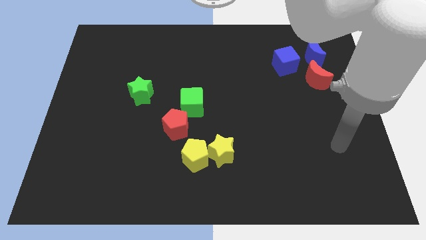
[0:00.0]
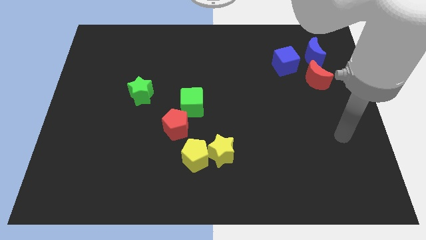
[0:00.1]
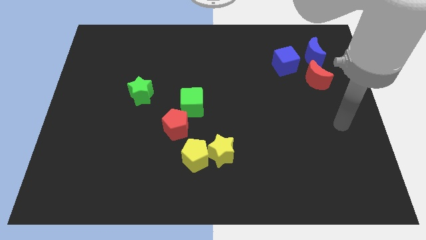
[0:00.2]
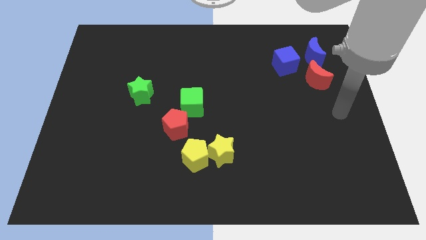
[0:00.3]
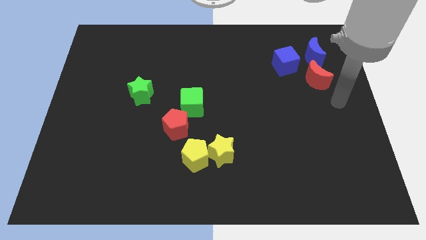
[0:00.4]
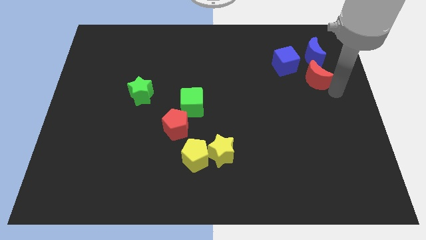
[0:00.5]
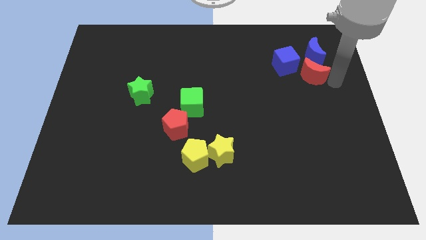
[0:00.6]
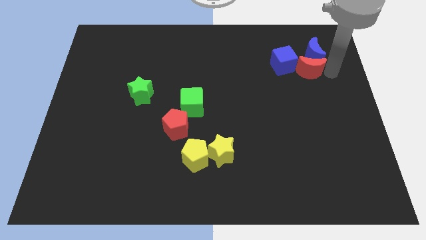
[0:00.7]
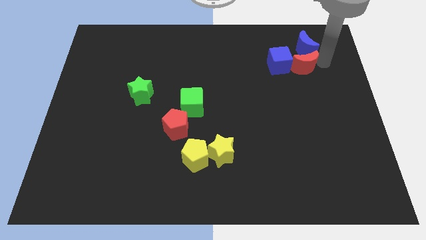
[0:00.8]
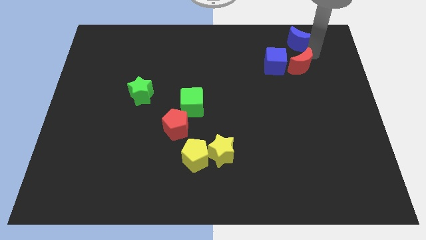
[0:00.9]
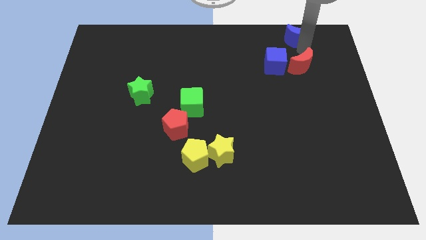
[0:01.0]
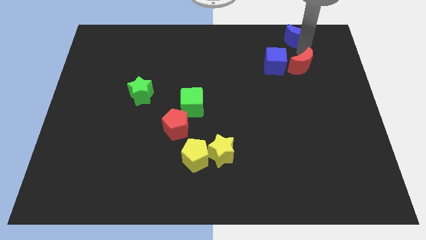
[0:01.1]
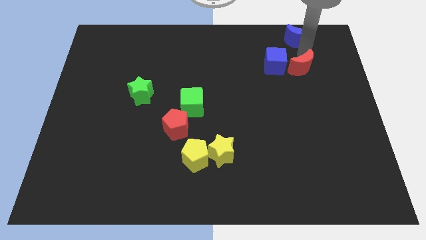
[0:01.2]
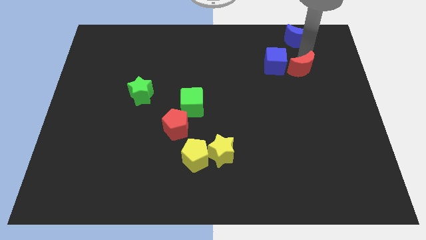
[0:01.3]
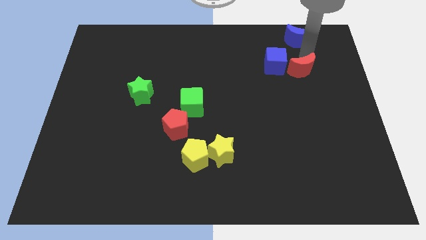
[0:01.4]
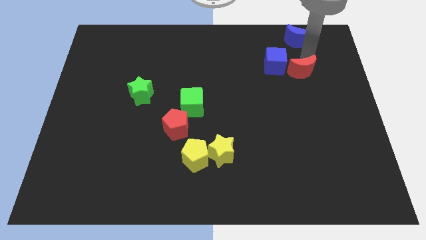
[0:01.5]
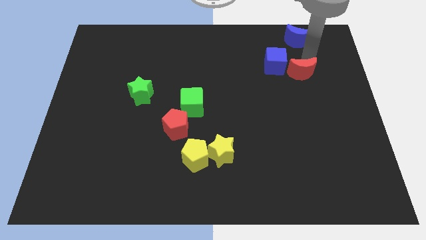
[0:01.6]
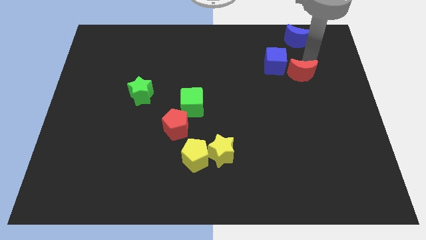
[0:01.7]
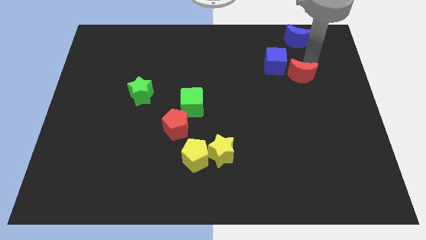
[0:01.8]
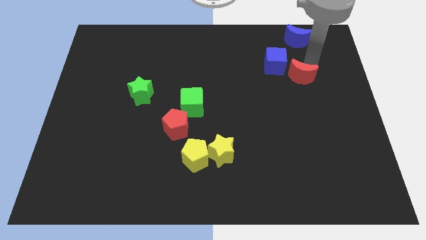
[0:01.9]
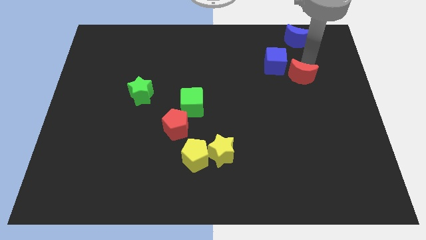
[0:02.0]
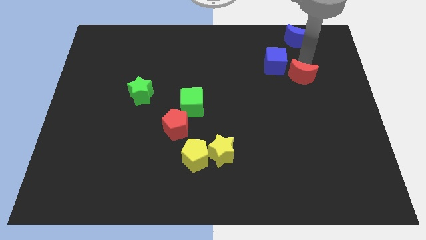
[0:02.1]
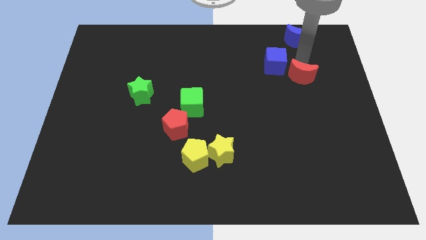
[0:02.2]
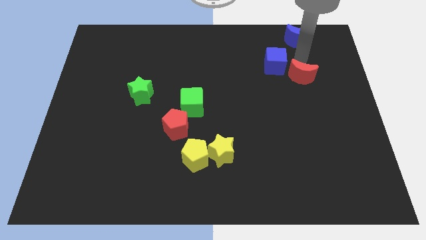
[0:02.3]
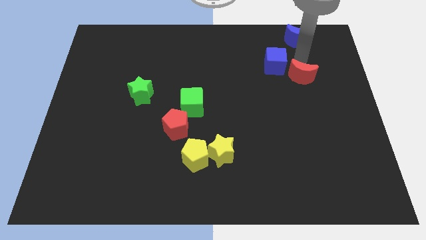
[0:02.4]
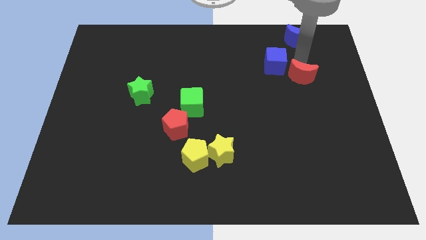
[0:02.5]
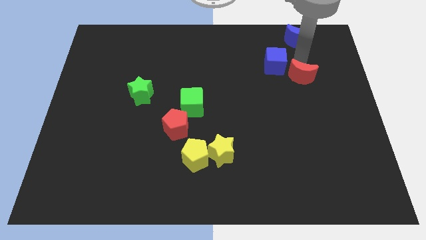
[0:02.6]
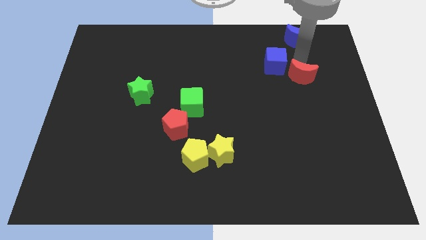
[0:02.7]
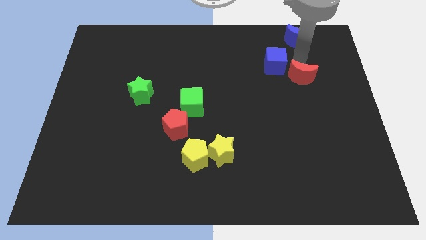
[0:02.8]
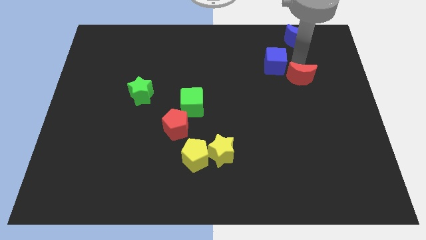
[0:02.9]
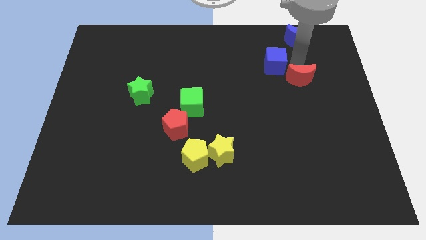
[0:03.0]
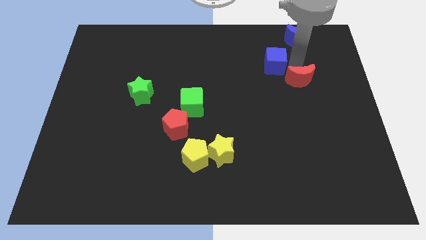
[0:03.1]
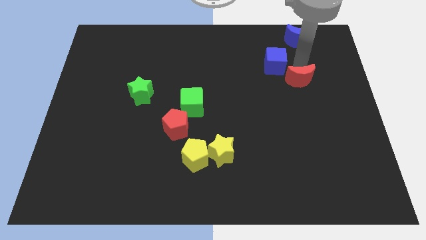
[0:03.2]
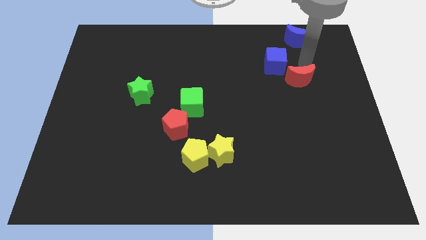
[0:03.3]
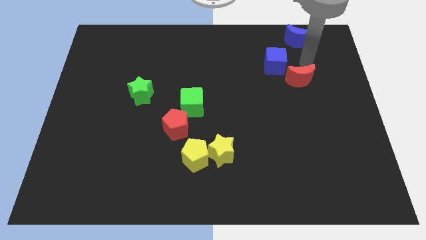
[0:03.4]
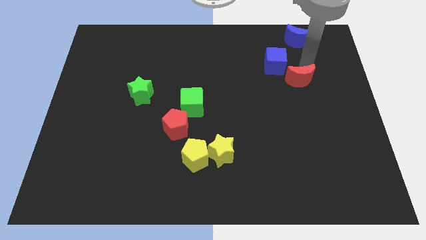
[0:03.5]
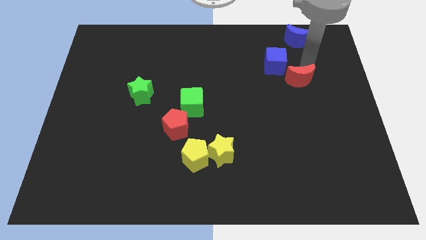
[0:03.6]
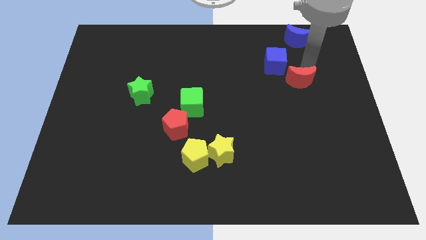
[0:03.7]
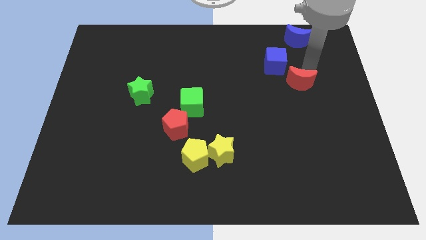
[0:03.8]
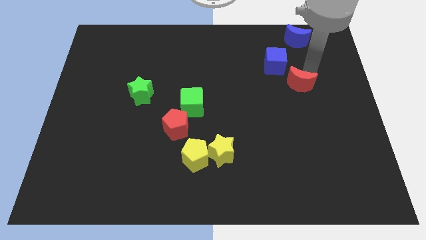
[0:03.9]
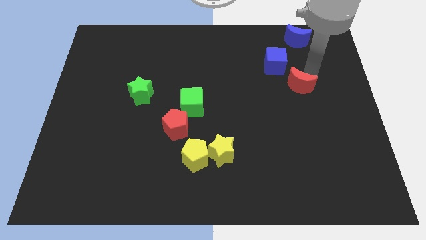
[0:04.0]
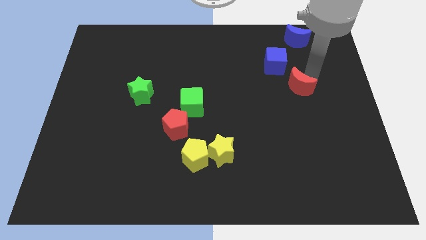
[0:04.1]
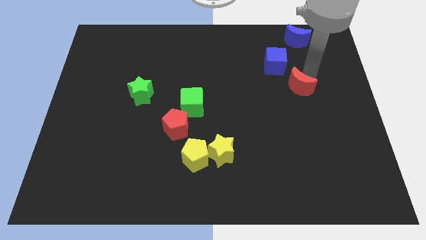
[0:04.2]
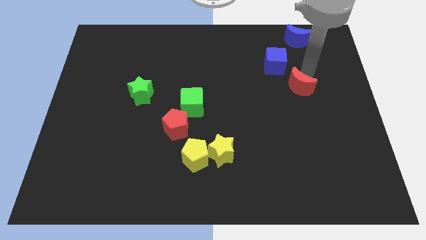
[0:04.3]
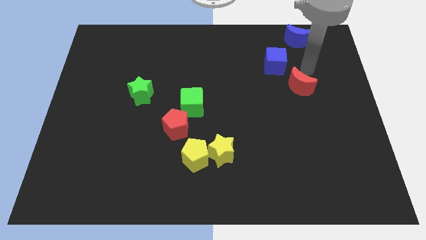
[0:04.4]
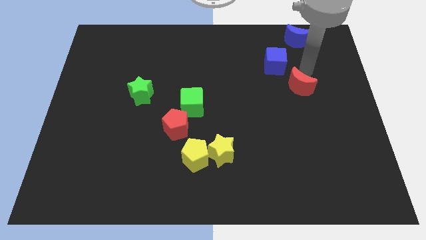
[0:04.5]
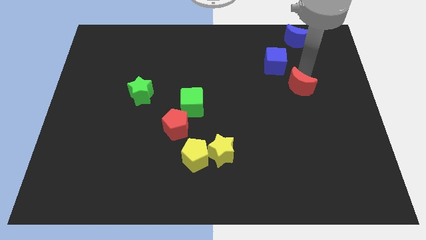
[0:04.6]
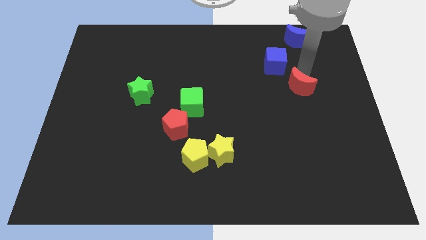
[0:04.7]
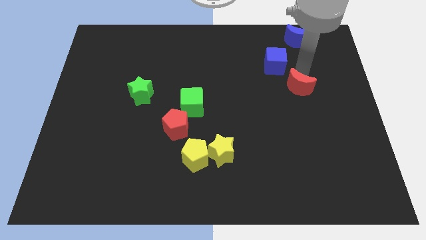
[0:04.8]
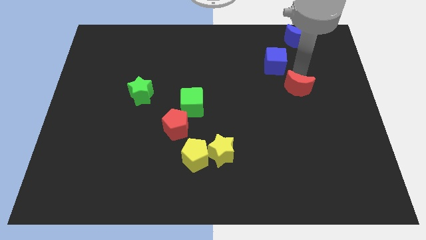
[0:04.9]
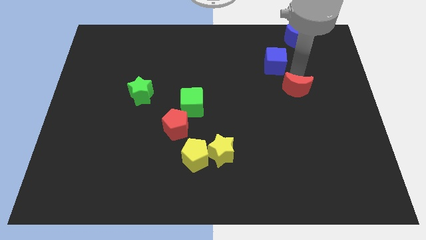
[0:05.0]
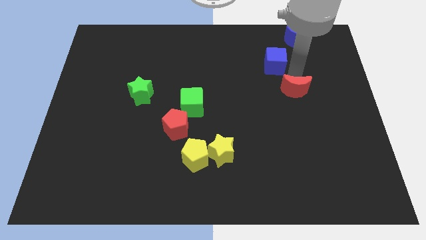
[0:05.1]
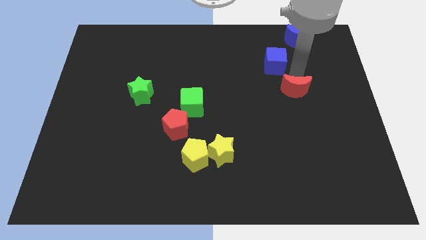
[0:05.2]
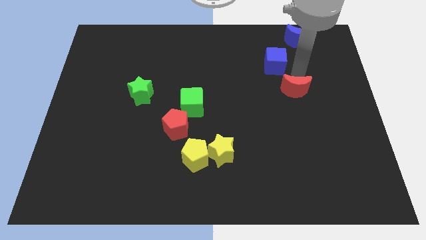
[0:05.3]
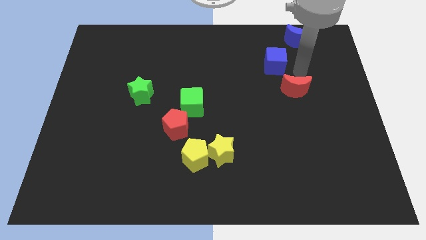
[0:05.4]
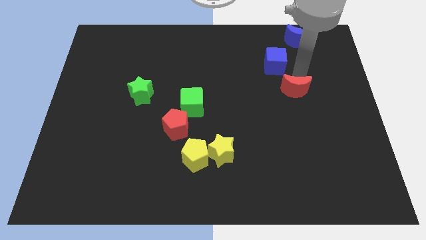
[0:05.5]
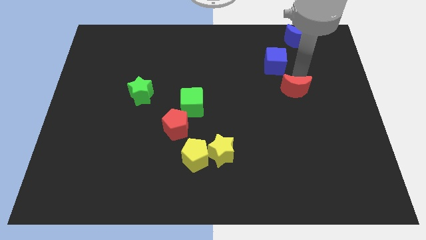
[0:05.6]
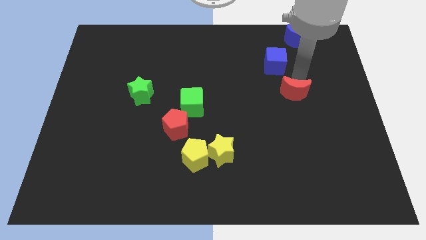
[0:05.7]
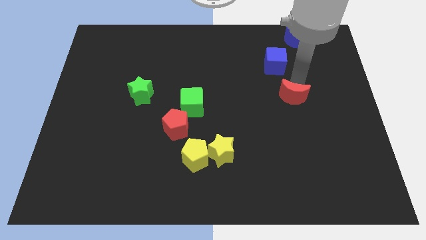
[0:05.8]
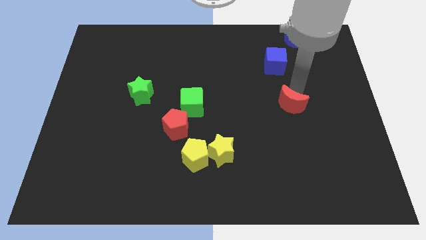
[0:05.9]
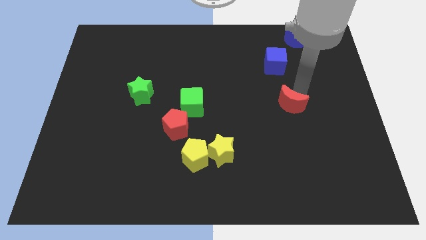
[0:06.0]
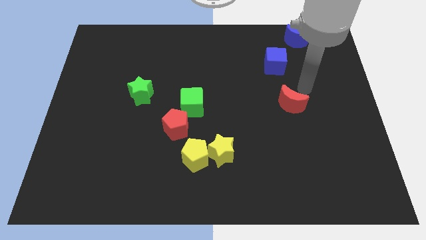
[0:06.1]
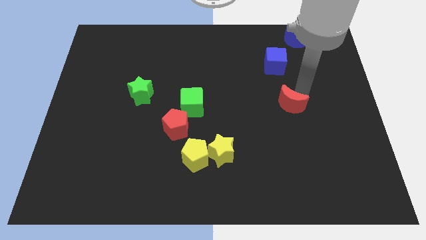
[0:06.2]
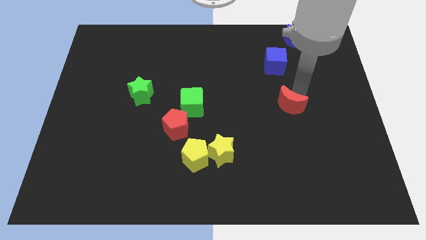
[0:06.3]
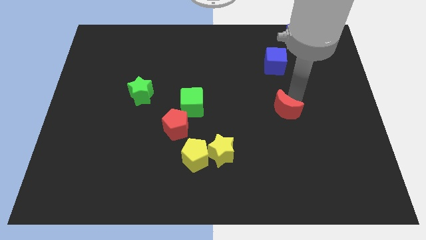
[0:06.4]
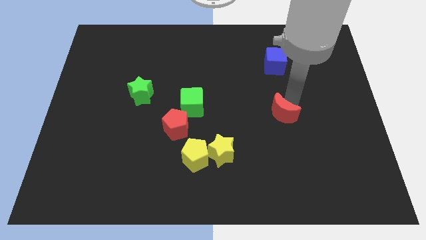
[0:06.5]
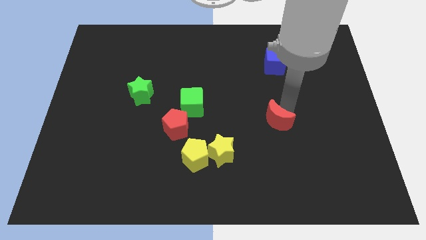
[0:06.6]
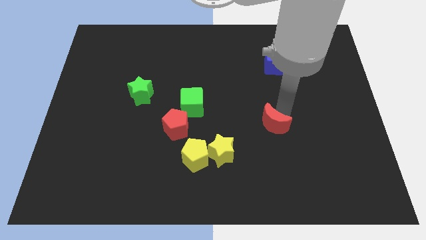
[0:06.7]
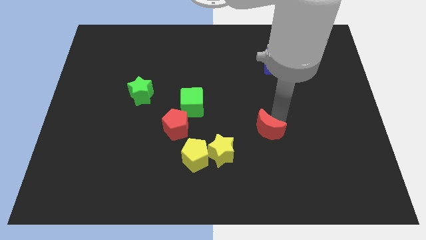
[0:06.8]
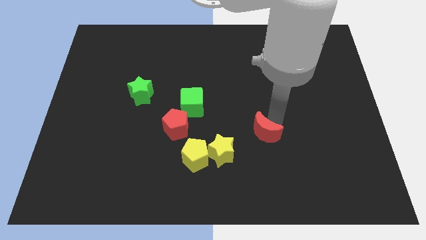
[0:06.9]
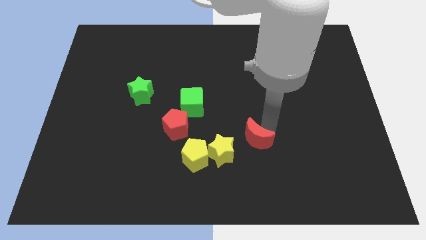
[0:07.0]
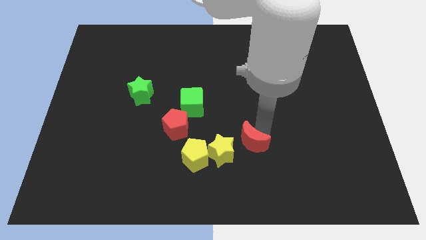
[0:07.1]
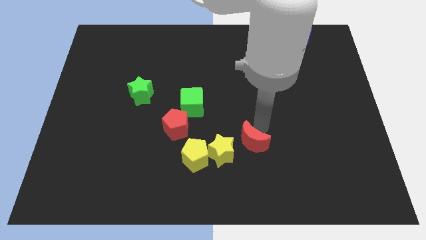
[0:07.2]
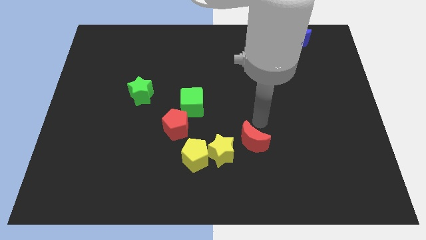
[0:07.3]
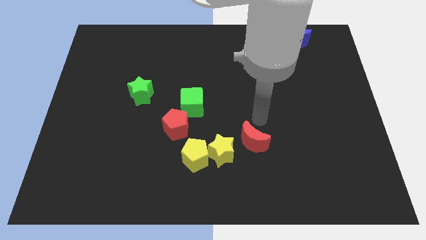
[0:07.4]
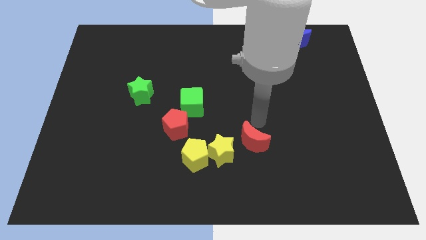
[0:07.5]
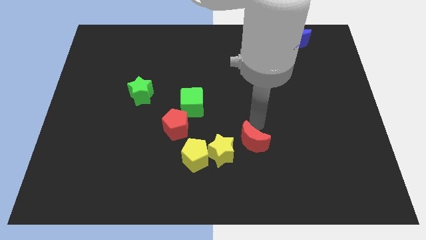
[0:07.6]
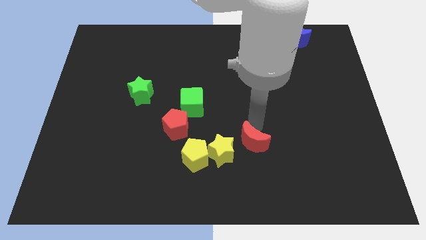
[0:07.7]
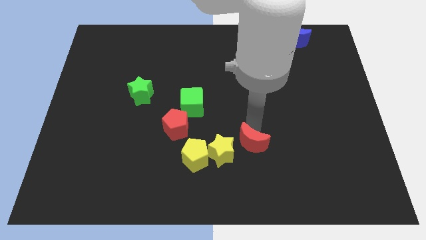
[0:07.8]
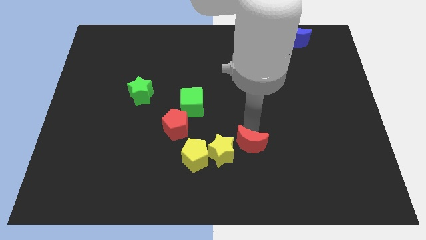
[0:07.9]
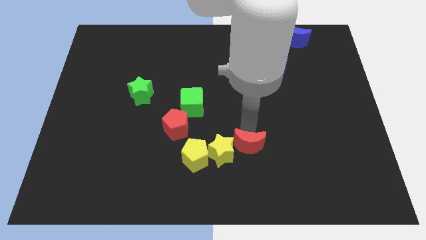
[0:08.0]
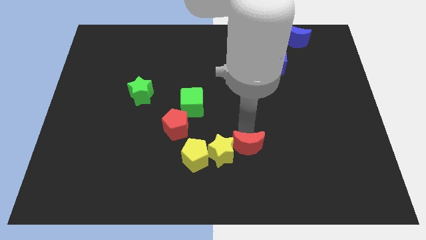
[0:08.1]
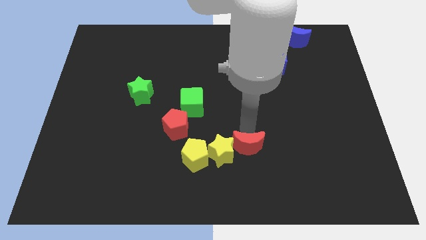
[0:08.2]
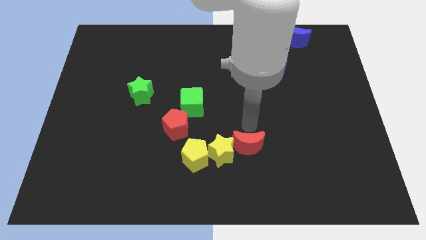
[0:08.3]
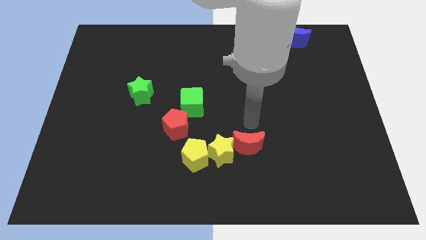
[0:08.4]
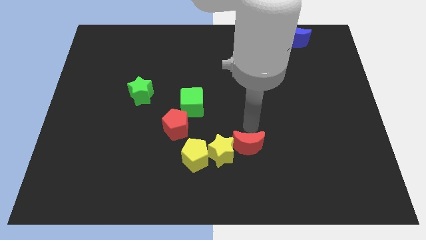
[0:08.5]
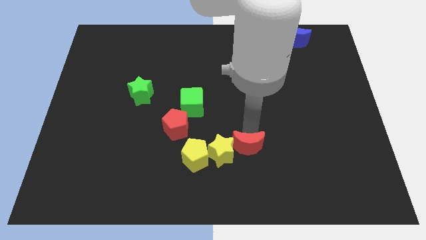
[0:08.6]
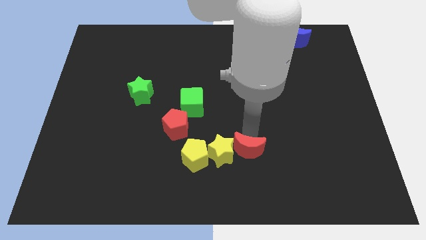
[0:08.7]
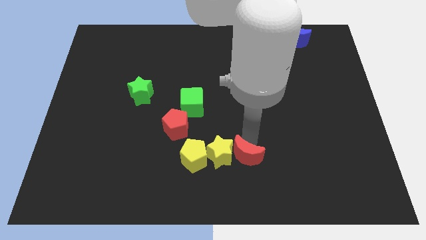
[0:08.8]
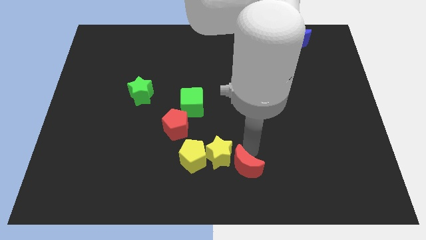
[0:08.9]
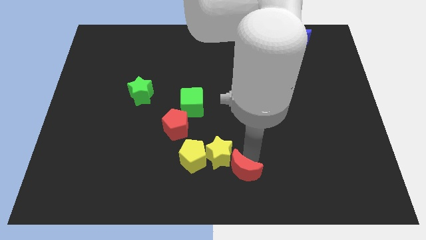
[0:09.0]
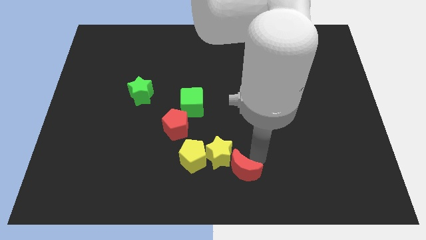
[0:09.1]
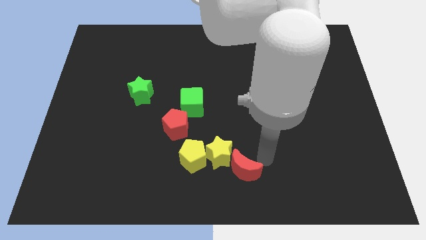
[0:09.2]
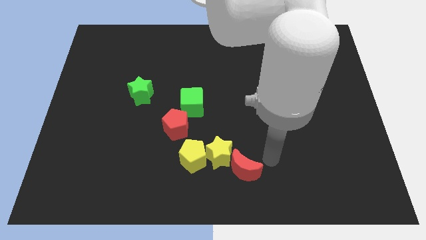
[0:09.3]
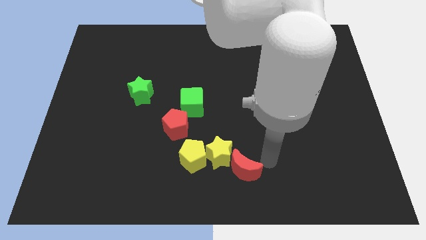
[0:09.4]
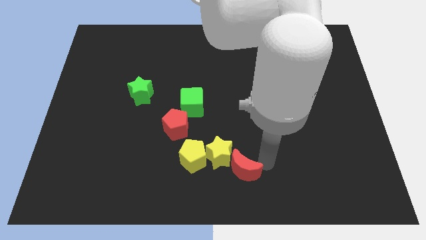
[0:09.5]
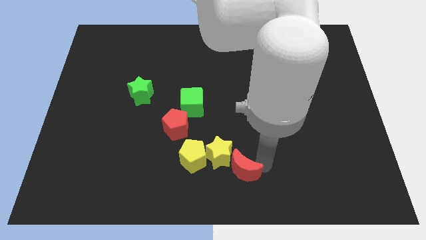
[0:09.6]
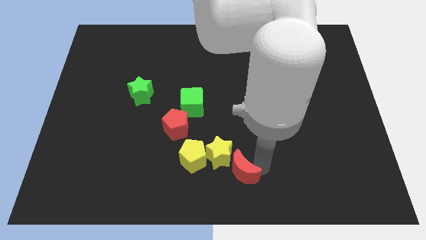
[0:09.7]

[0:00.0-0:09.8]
push the red moon to the bottom right side of the yellow pentagon
